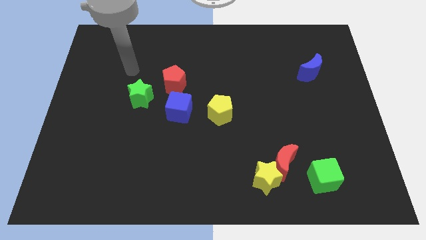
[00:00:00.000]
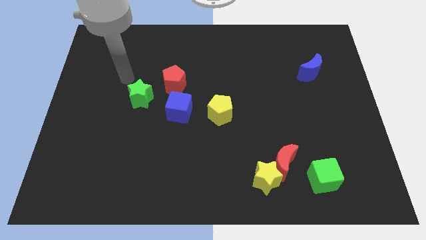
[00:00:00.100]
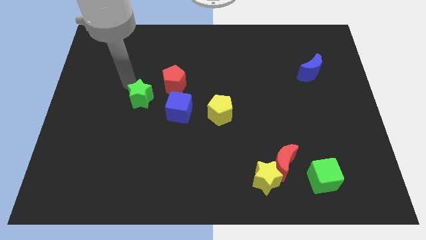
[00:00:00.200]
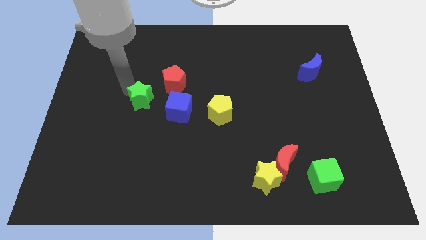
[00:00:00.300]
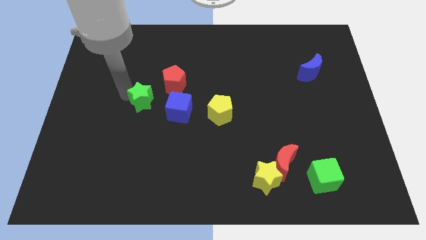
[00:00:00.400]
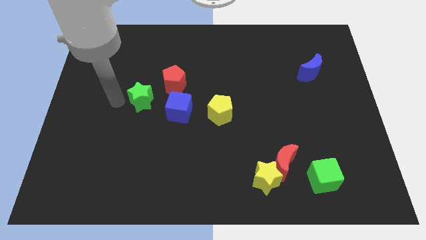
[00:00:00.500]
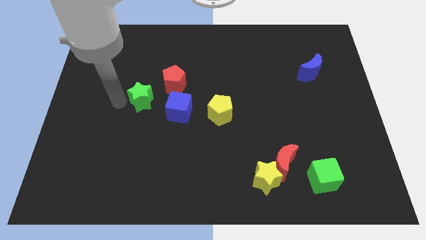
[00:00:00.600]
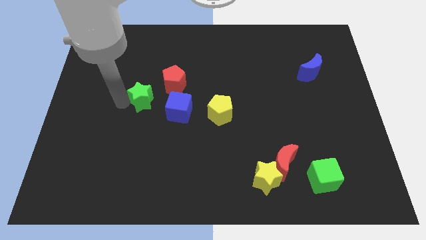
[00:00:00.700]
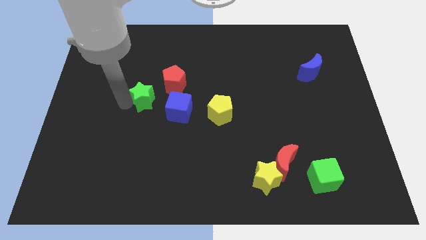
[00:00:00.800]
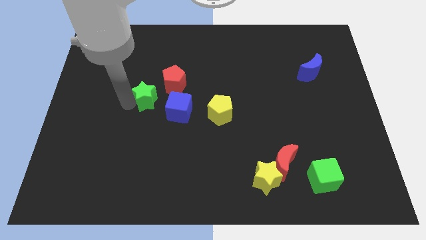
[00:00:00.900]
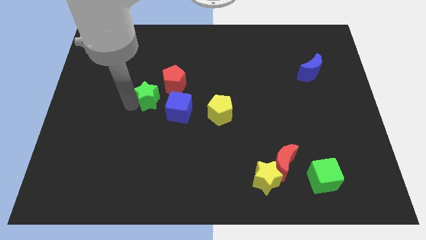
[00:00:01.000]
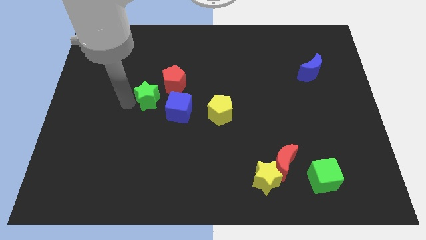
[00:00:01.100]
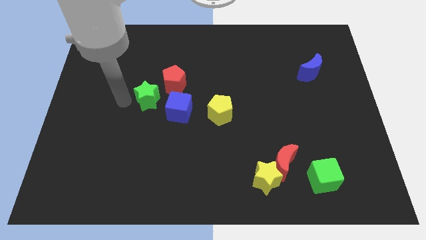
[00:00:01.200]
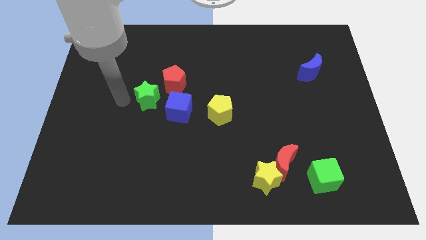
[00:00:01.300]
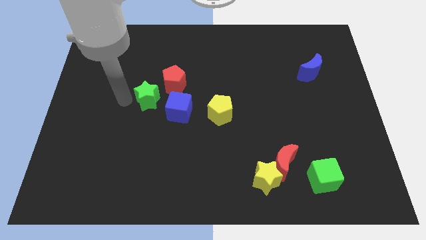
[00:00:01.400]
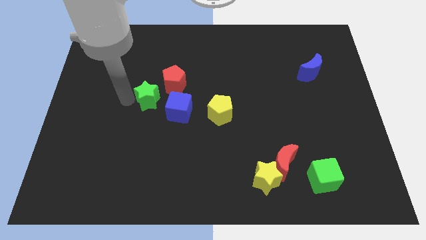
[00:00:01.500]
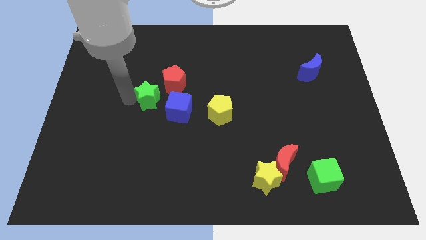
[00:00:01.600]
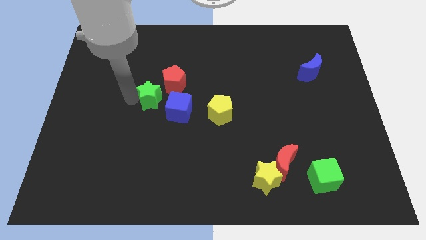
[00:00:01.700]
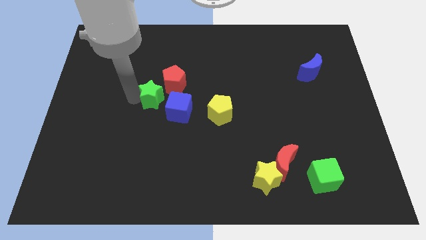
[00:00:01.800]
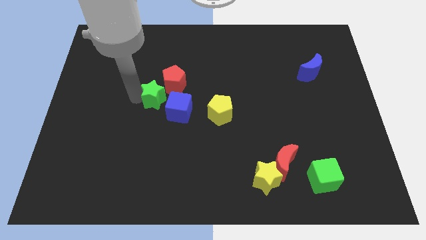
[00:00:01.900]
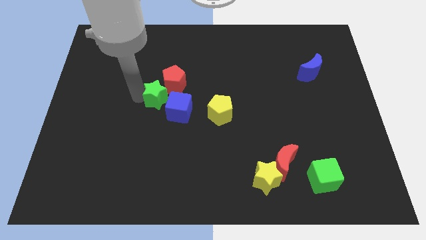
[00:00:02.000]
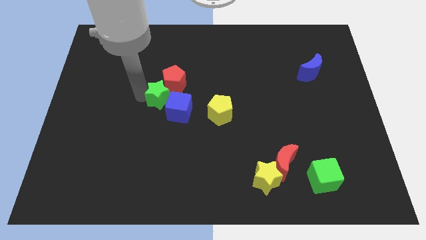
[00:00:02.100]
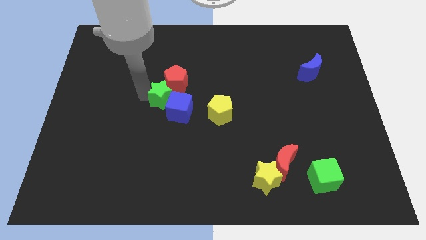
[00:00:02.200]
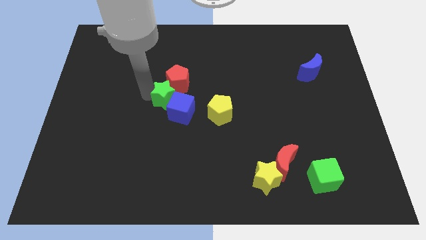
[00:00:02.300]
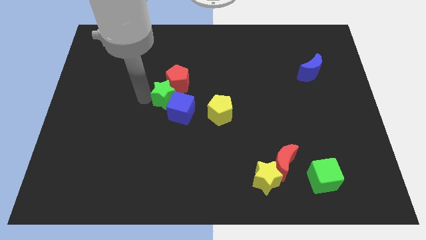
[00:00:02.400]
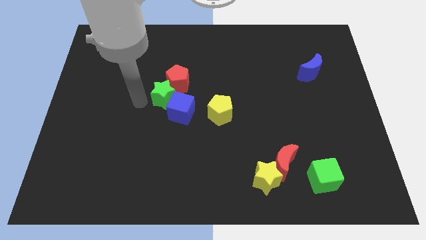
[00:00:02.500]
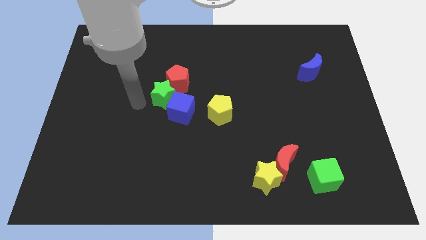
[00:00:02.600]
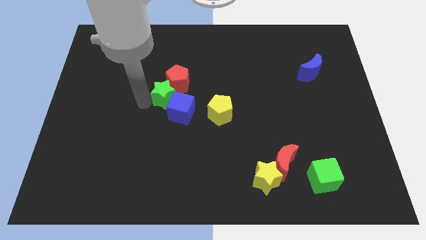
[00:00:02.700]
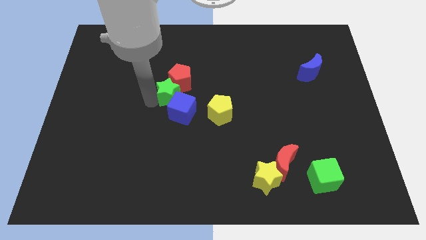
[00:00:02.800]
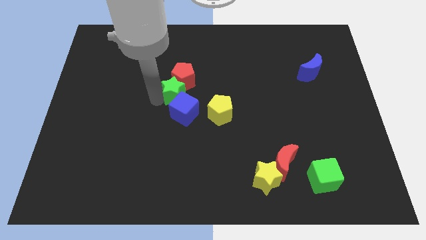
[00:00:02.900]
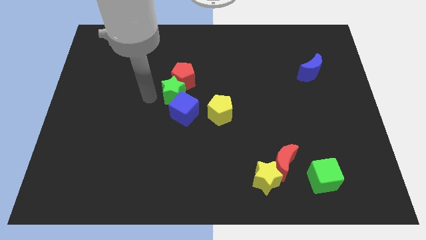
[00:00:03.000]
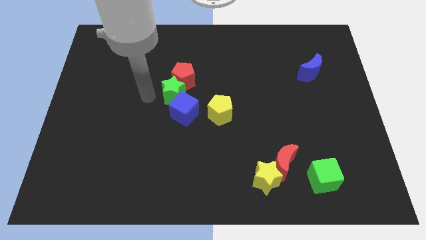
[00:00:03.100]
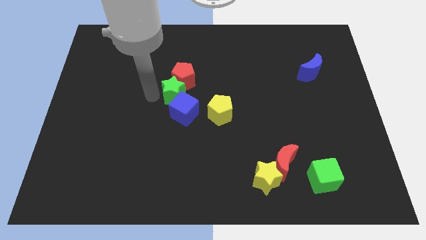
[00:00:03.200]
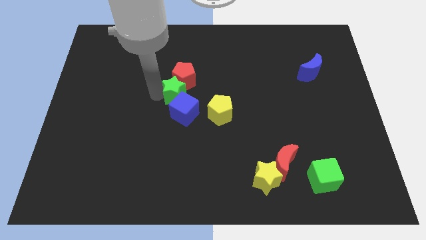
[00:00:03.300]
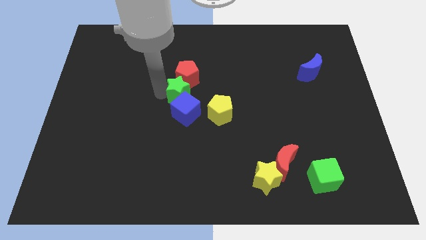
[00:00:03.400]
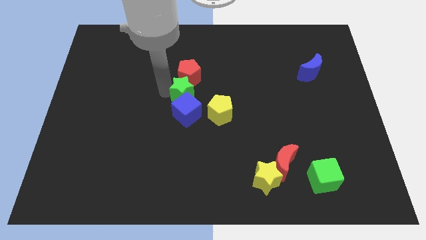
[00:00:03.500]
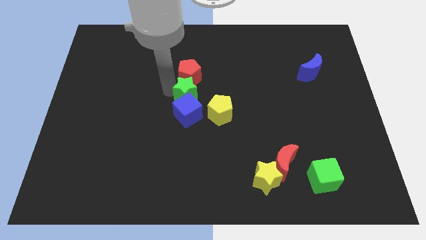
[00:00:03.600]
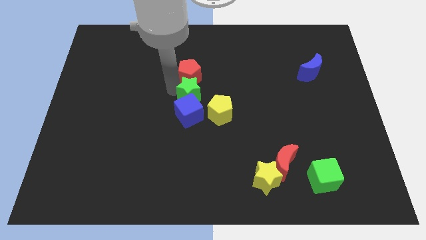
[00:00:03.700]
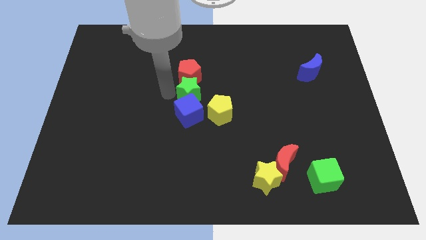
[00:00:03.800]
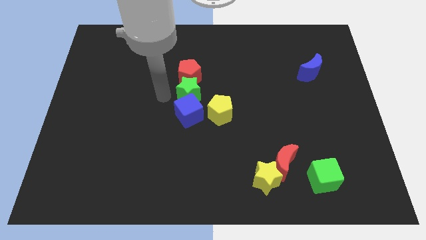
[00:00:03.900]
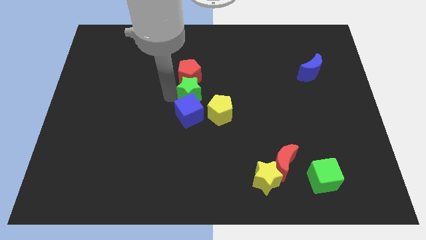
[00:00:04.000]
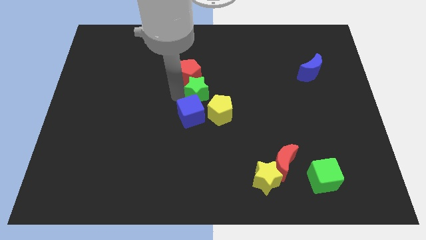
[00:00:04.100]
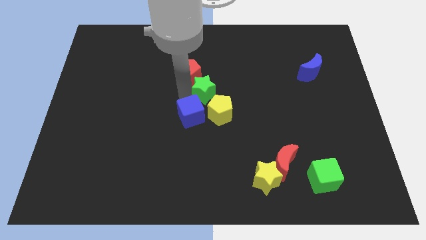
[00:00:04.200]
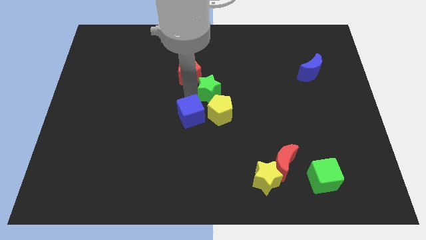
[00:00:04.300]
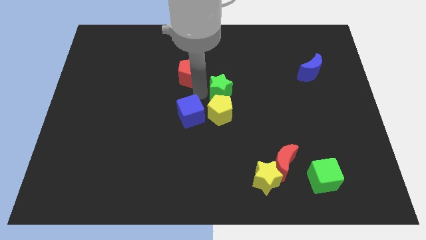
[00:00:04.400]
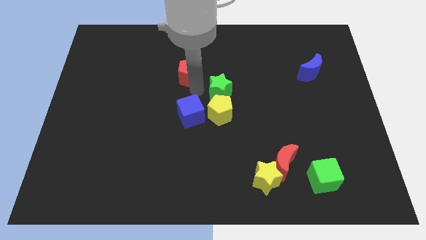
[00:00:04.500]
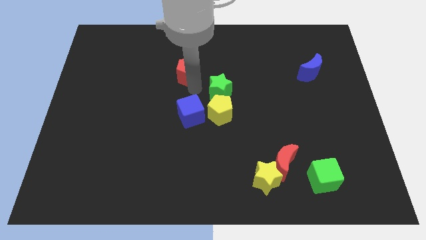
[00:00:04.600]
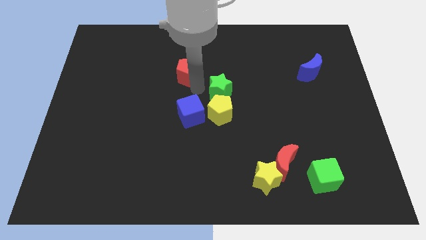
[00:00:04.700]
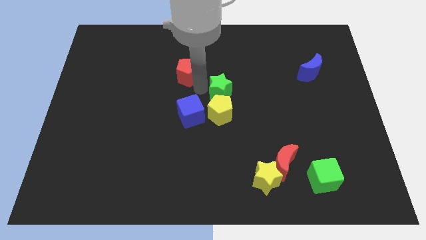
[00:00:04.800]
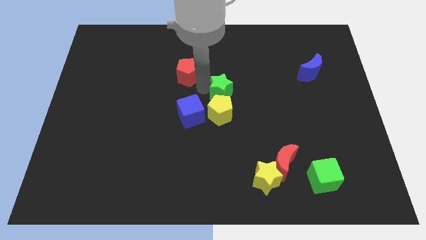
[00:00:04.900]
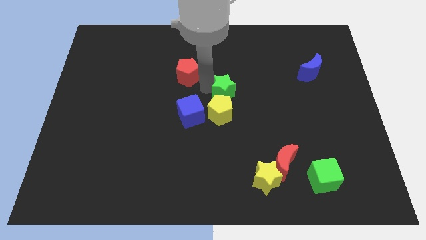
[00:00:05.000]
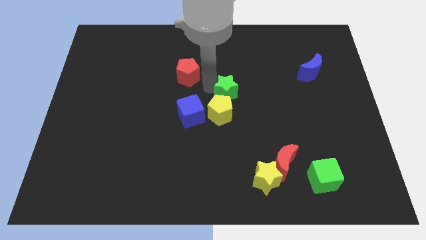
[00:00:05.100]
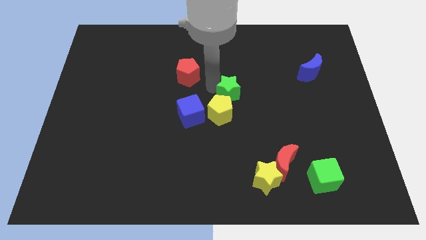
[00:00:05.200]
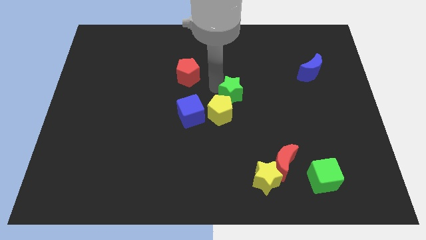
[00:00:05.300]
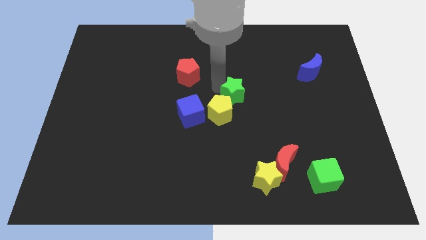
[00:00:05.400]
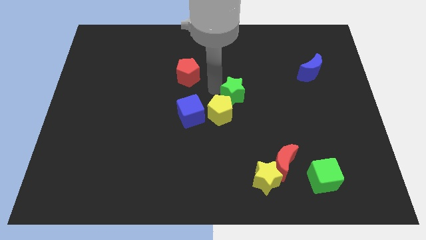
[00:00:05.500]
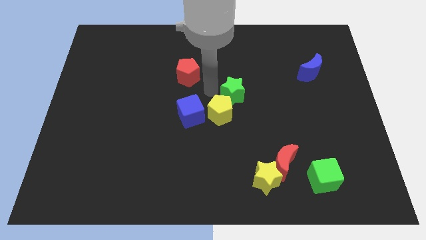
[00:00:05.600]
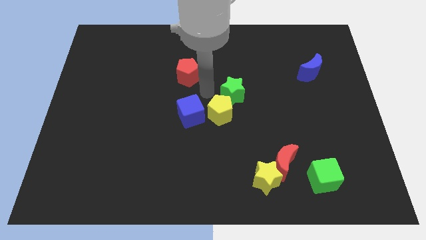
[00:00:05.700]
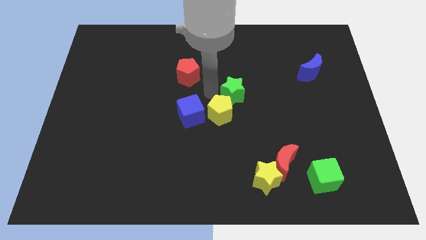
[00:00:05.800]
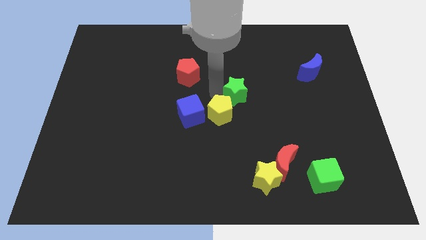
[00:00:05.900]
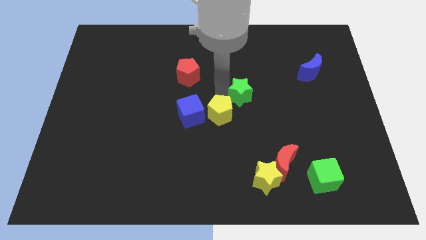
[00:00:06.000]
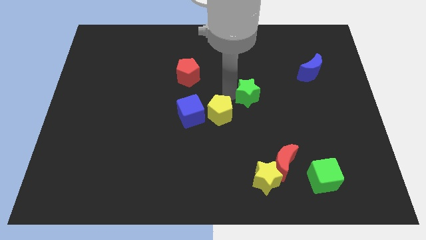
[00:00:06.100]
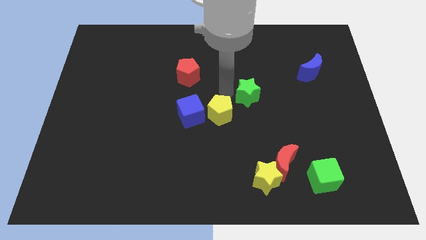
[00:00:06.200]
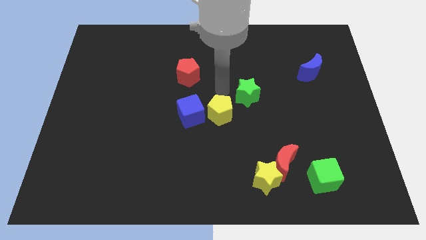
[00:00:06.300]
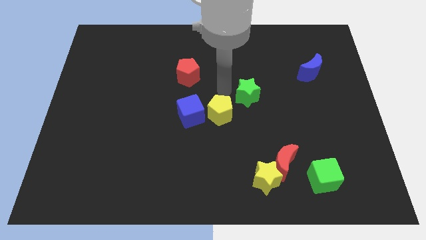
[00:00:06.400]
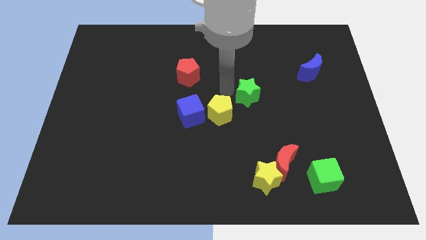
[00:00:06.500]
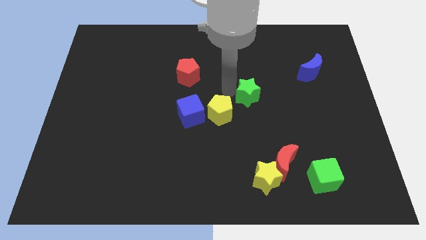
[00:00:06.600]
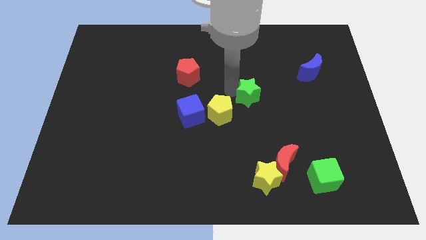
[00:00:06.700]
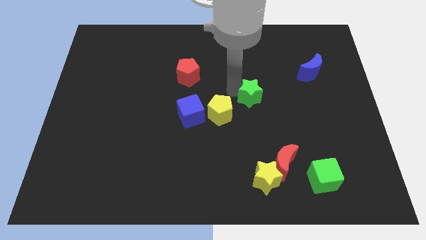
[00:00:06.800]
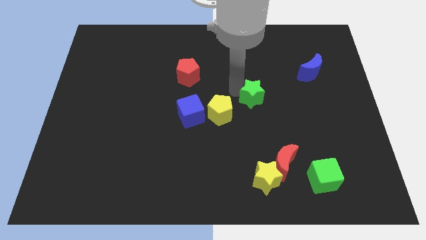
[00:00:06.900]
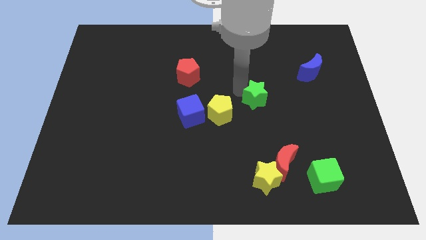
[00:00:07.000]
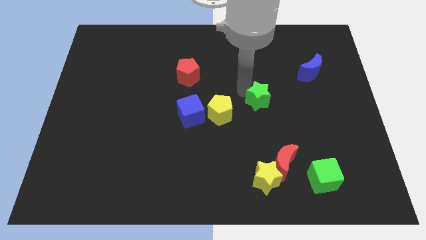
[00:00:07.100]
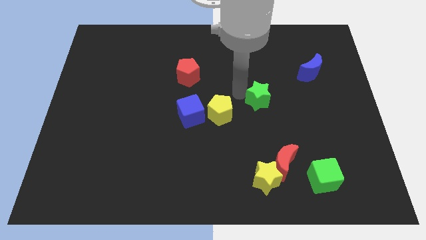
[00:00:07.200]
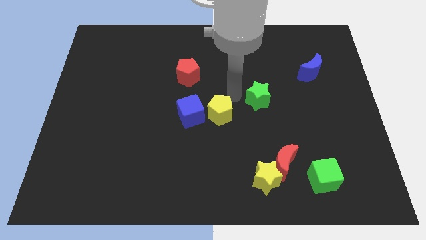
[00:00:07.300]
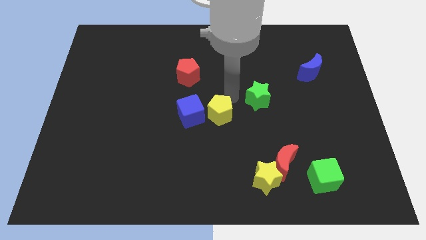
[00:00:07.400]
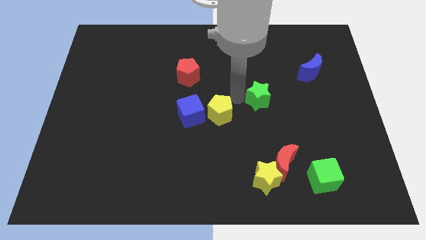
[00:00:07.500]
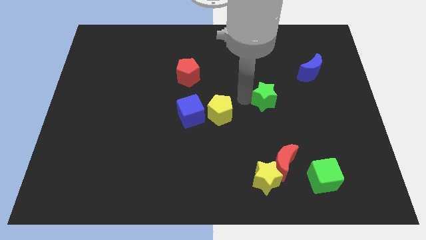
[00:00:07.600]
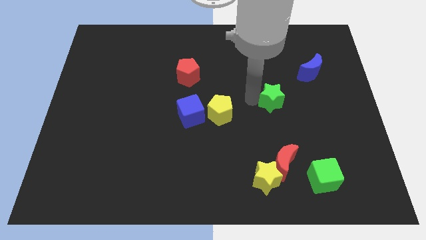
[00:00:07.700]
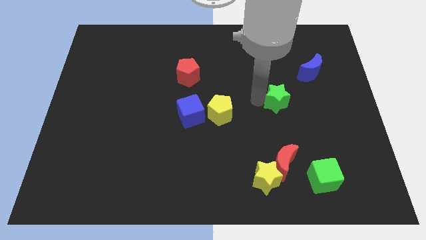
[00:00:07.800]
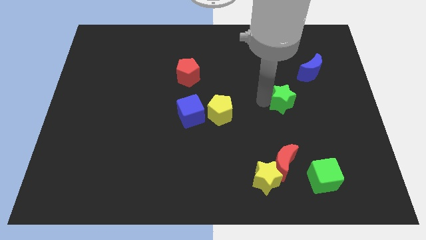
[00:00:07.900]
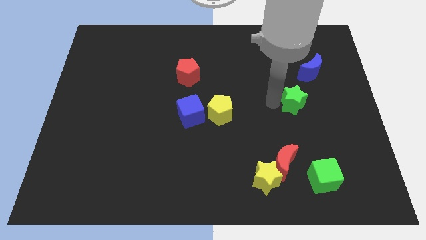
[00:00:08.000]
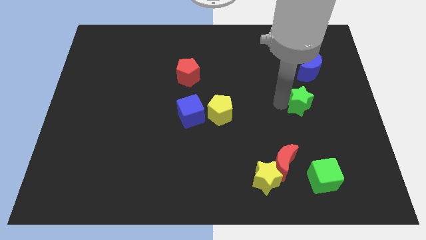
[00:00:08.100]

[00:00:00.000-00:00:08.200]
move the green star below the blue moon
